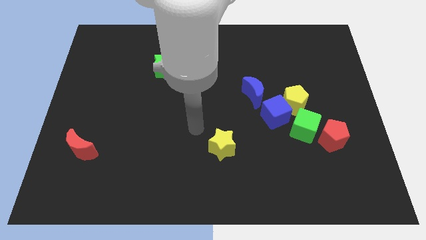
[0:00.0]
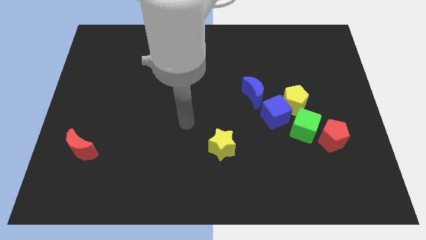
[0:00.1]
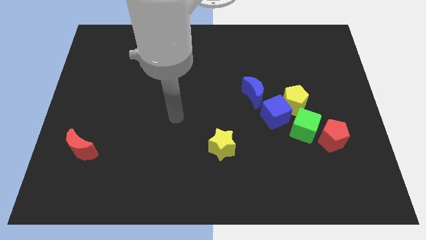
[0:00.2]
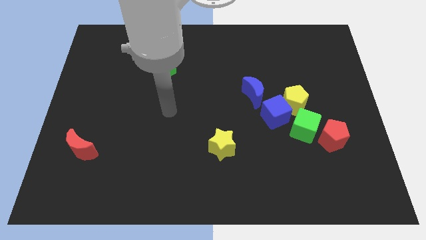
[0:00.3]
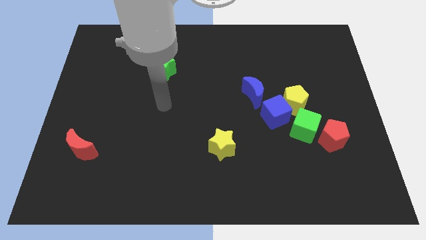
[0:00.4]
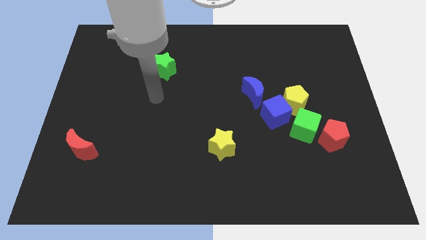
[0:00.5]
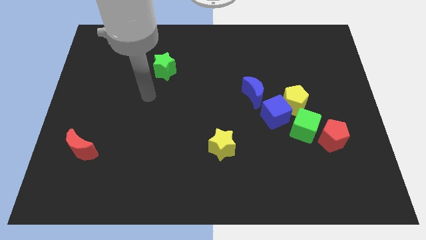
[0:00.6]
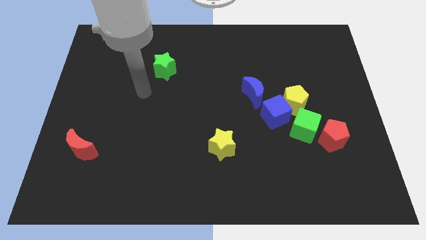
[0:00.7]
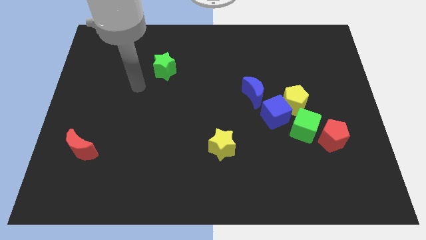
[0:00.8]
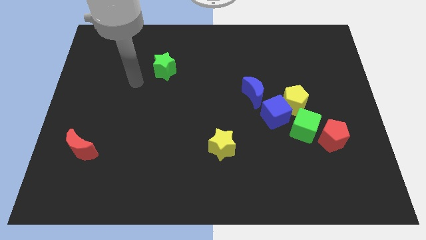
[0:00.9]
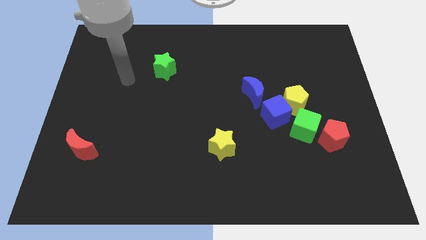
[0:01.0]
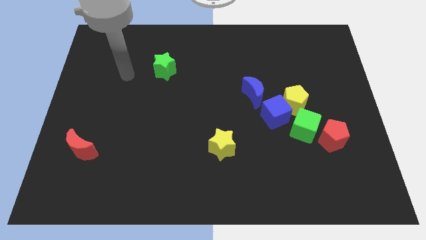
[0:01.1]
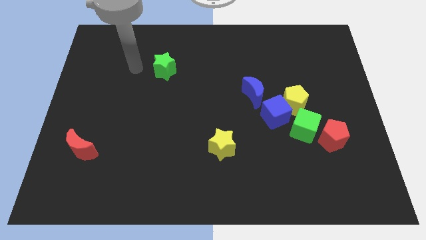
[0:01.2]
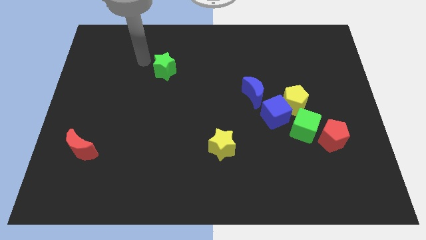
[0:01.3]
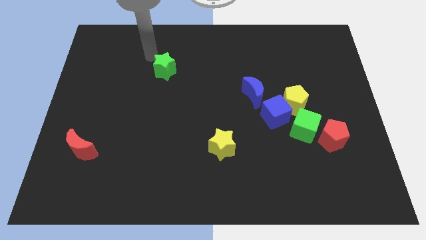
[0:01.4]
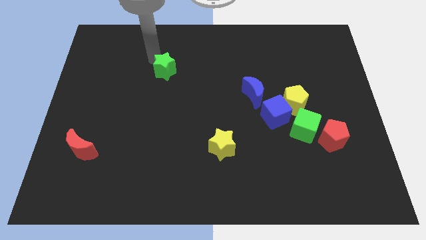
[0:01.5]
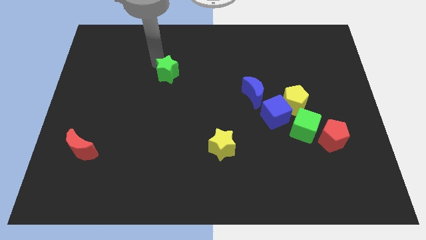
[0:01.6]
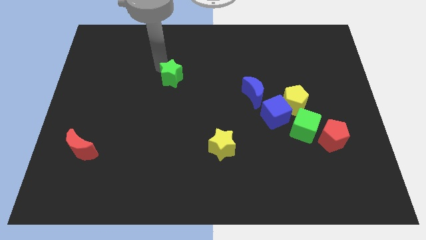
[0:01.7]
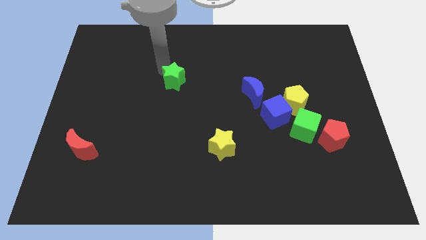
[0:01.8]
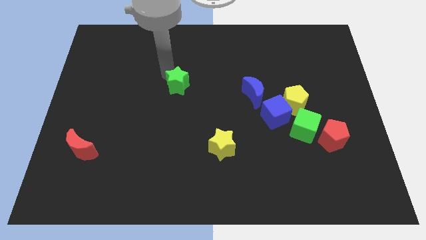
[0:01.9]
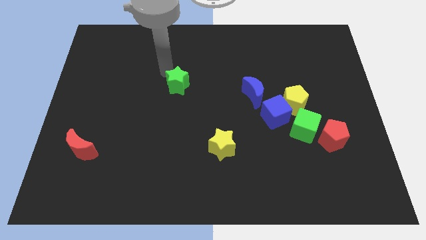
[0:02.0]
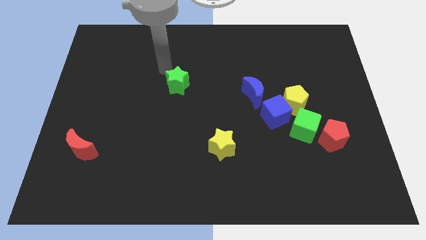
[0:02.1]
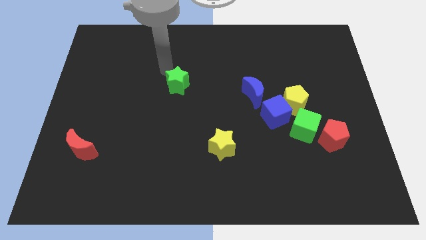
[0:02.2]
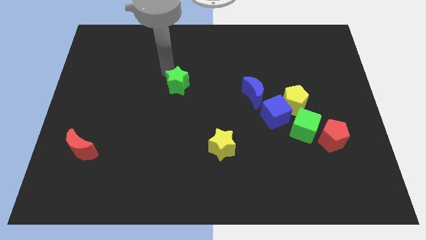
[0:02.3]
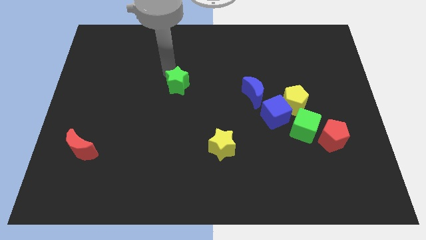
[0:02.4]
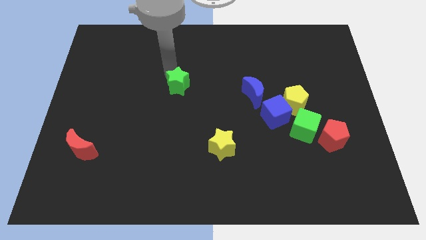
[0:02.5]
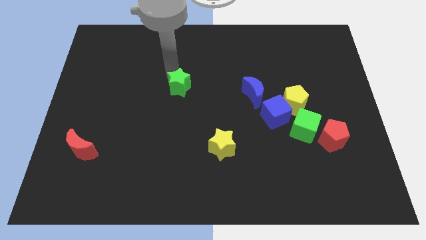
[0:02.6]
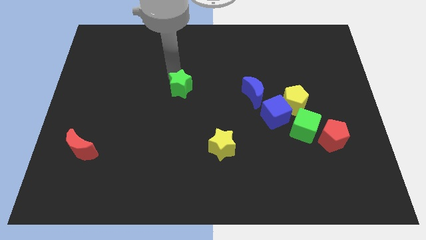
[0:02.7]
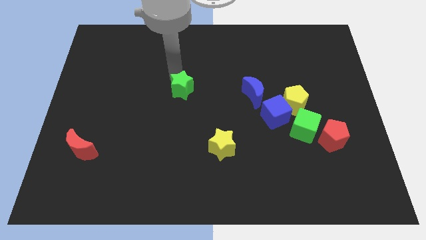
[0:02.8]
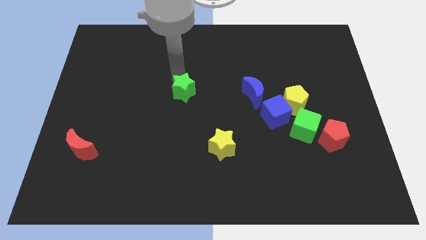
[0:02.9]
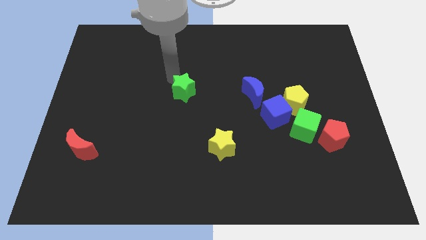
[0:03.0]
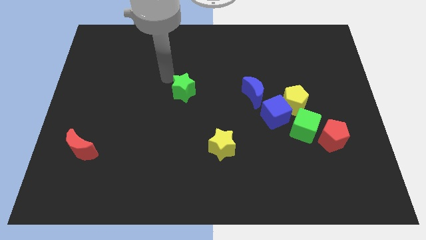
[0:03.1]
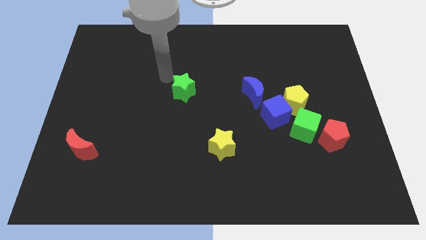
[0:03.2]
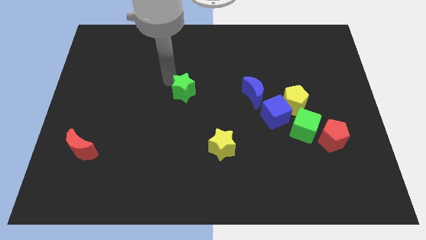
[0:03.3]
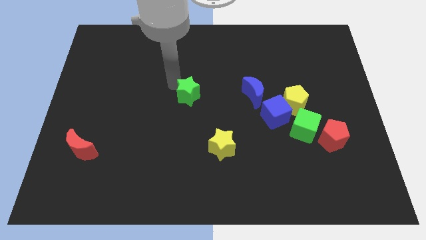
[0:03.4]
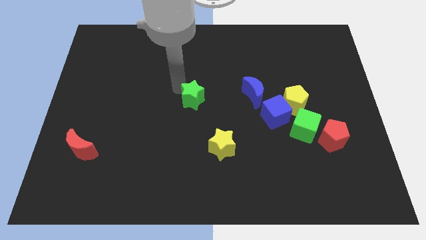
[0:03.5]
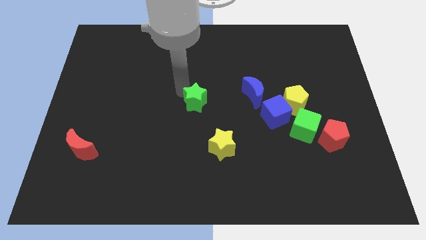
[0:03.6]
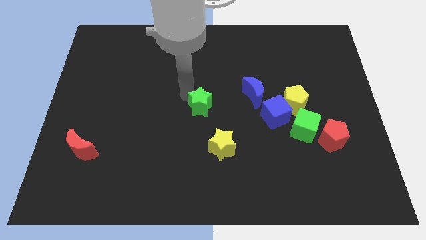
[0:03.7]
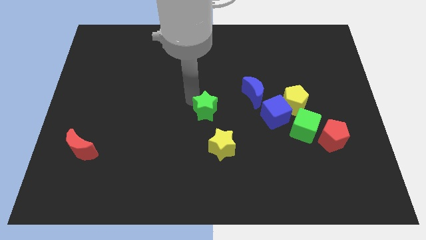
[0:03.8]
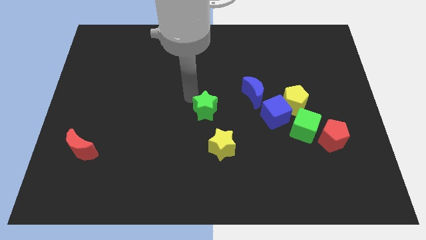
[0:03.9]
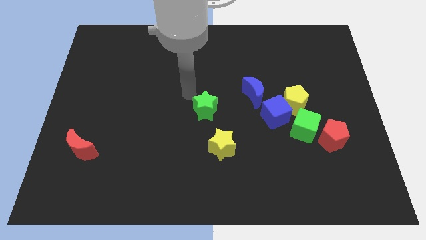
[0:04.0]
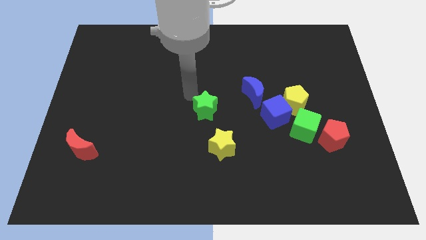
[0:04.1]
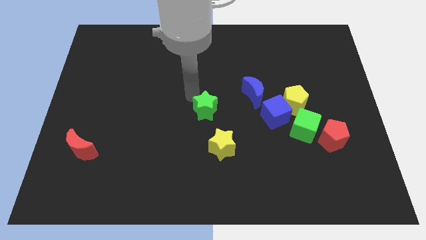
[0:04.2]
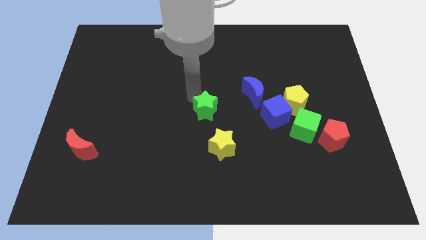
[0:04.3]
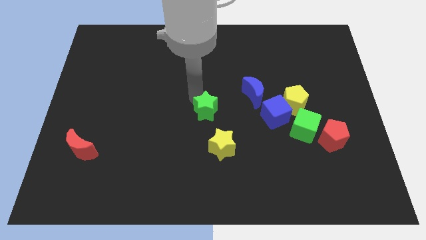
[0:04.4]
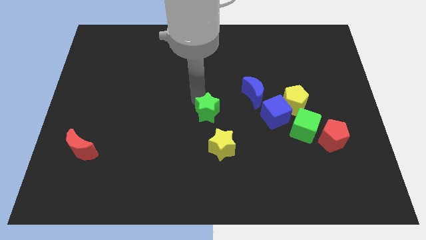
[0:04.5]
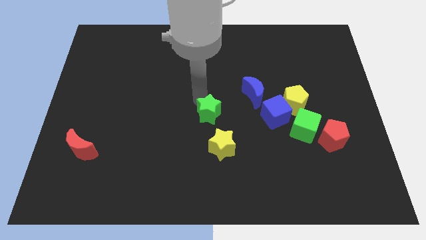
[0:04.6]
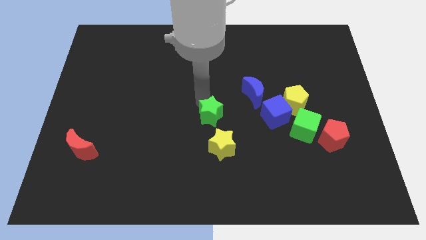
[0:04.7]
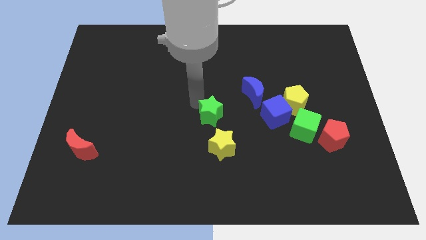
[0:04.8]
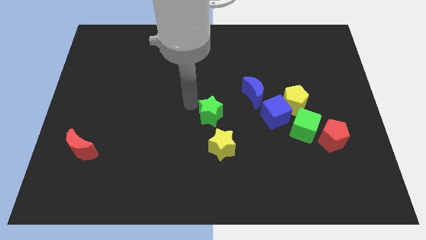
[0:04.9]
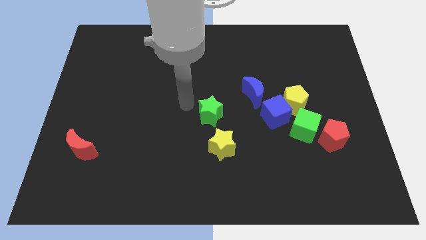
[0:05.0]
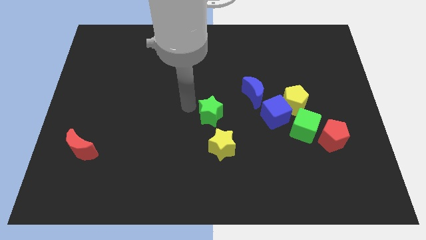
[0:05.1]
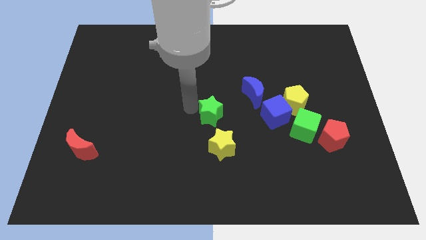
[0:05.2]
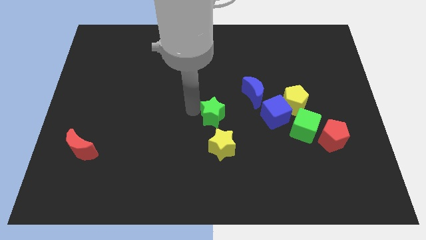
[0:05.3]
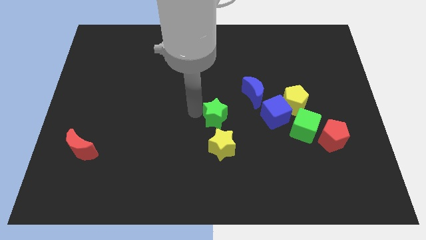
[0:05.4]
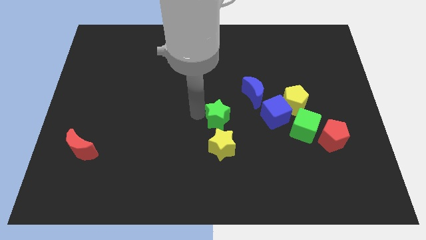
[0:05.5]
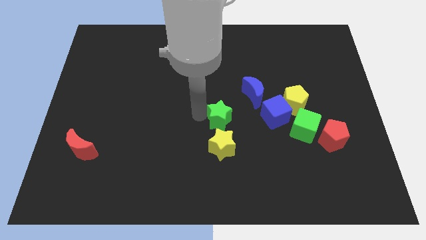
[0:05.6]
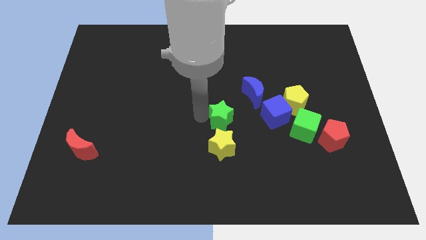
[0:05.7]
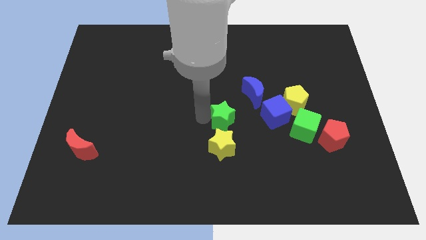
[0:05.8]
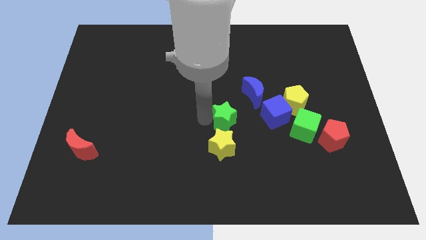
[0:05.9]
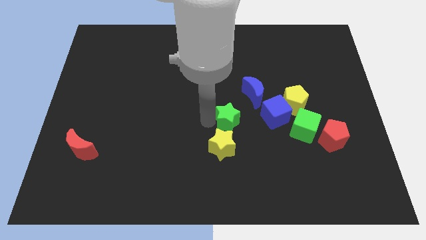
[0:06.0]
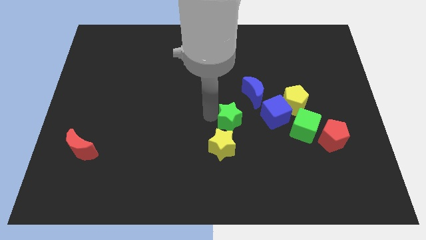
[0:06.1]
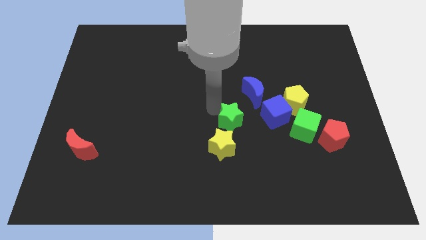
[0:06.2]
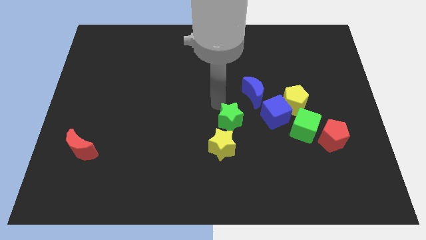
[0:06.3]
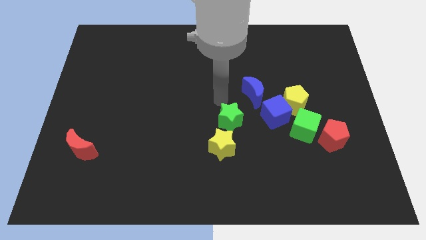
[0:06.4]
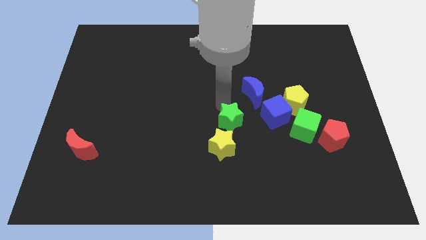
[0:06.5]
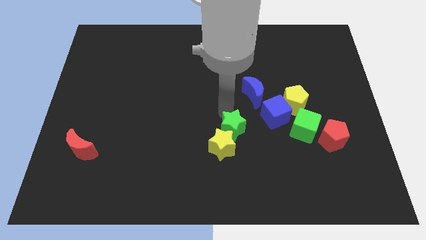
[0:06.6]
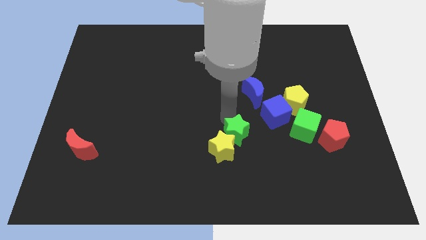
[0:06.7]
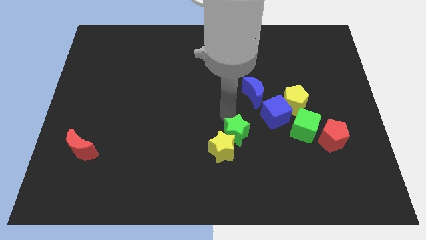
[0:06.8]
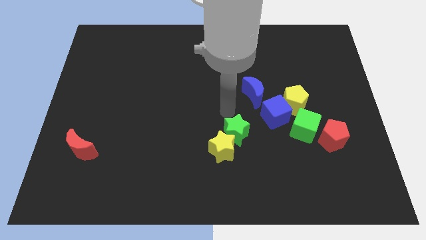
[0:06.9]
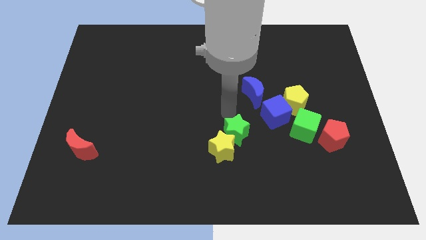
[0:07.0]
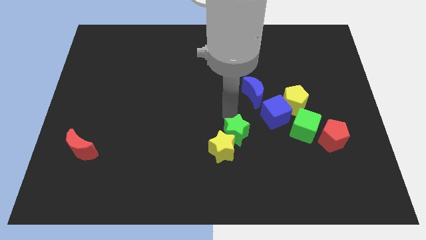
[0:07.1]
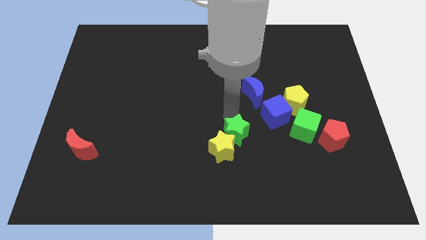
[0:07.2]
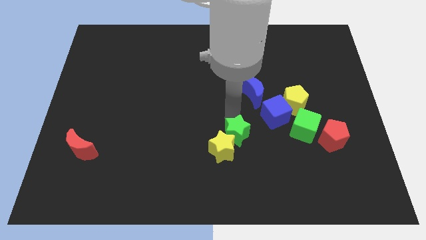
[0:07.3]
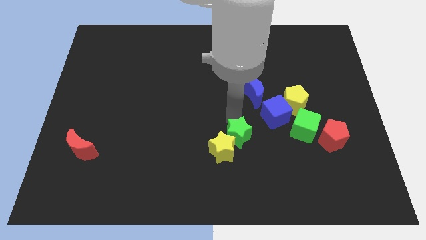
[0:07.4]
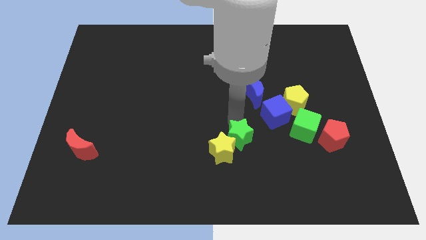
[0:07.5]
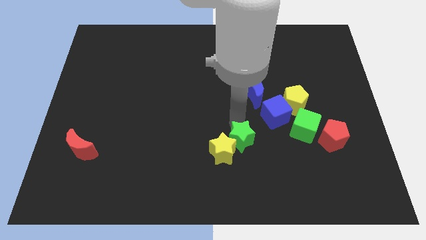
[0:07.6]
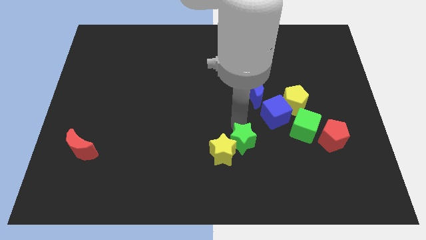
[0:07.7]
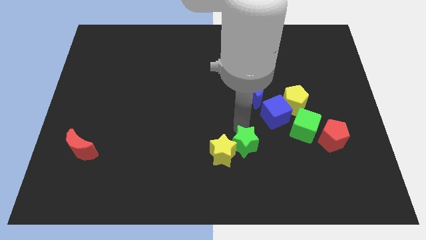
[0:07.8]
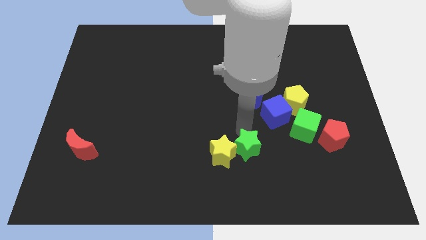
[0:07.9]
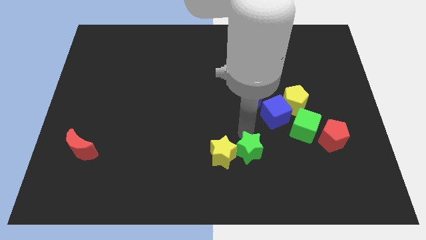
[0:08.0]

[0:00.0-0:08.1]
put the green star to the bottom right side of the yellow star
